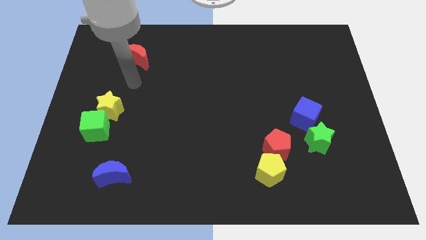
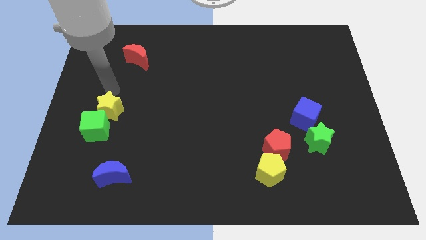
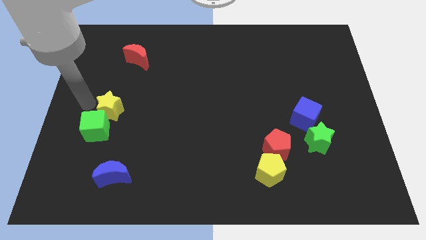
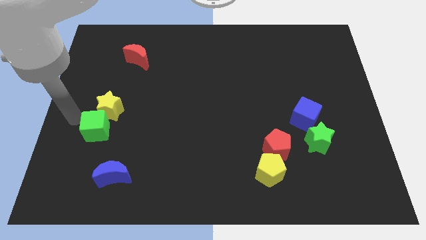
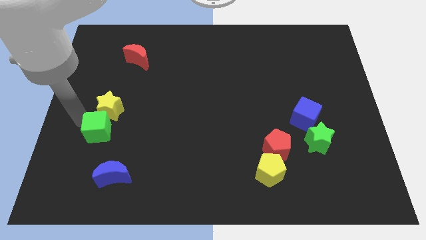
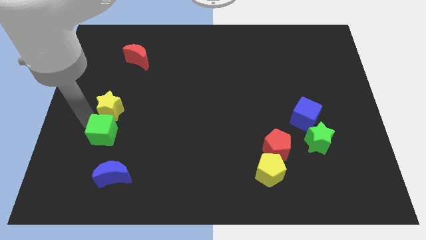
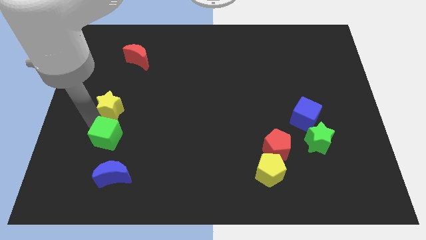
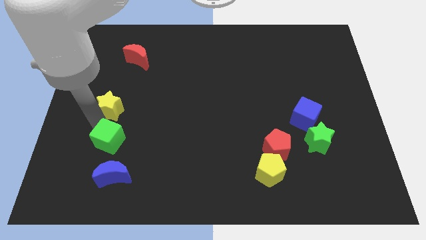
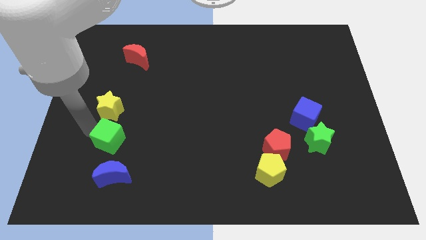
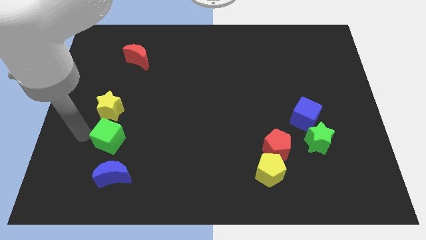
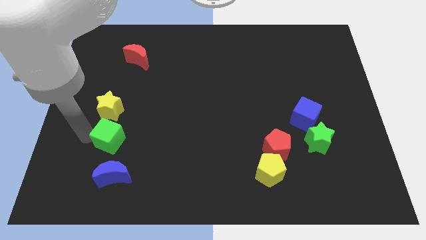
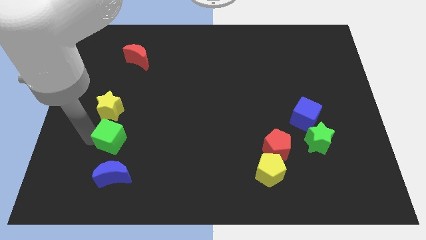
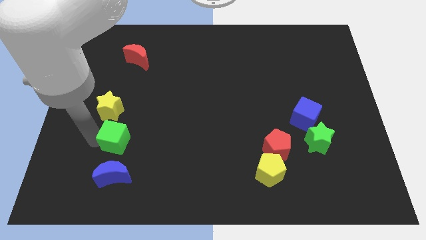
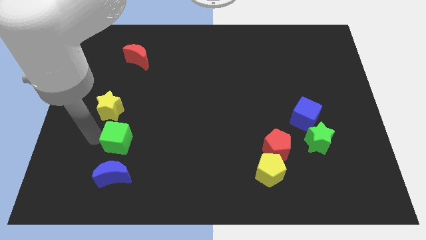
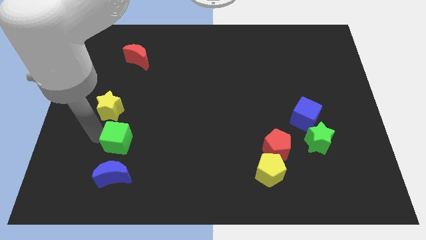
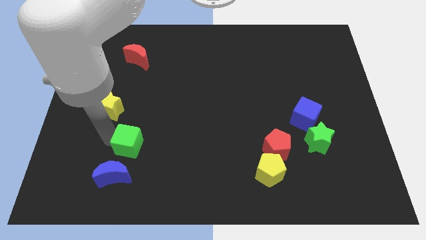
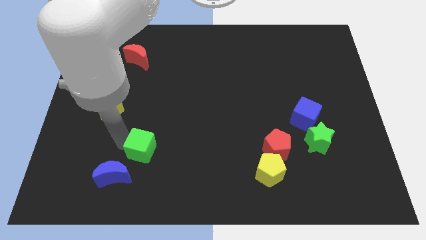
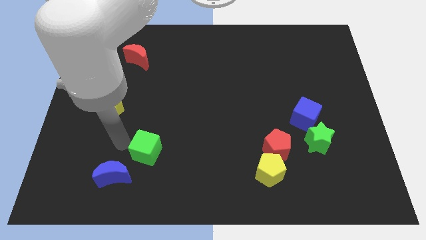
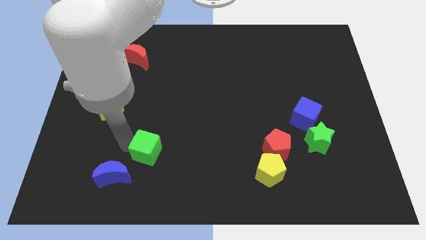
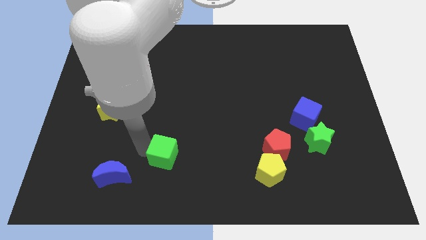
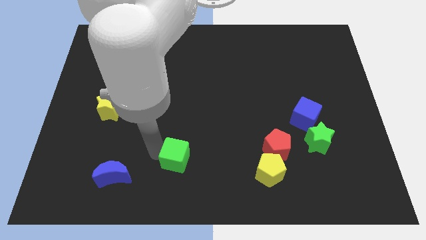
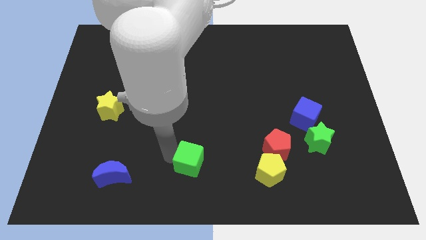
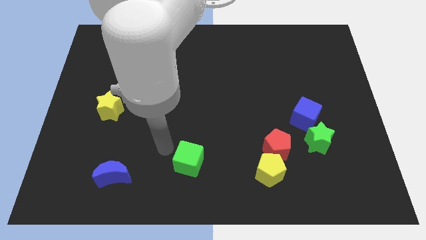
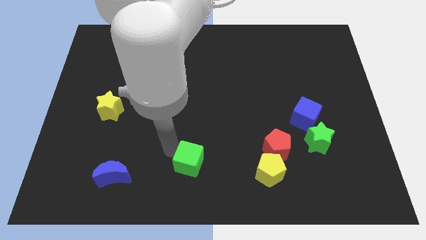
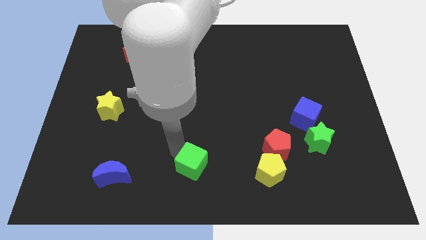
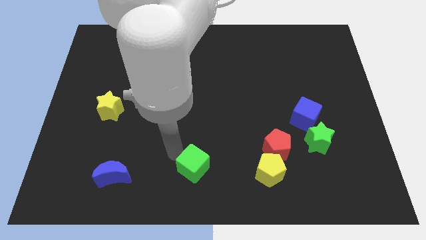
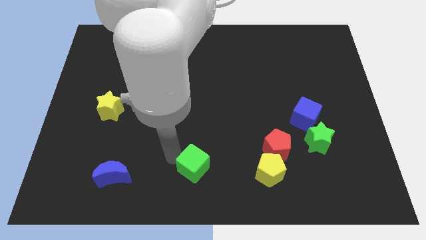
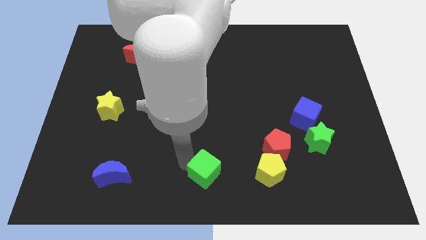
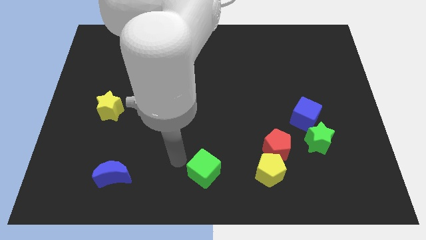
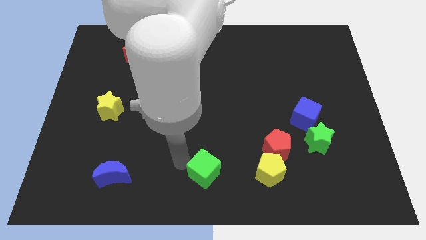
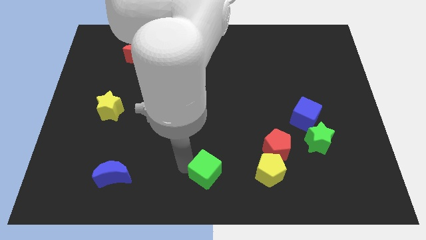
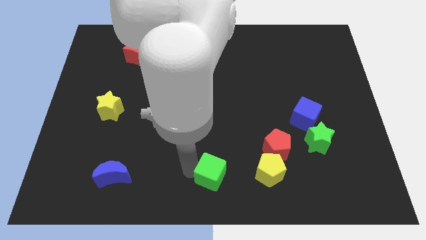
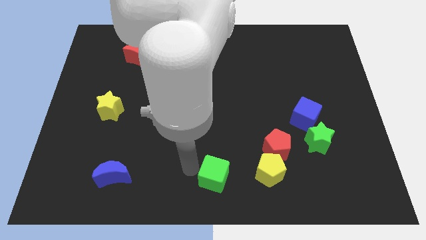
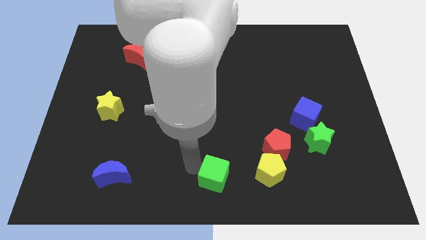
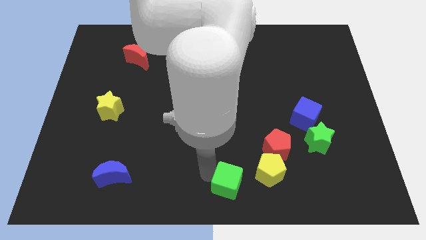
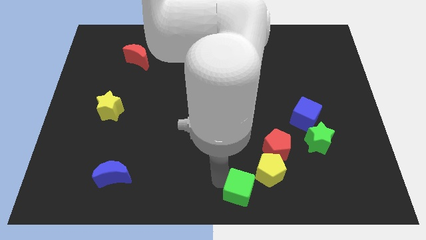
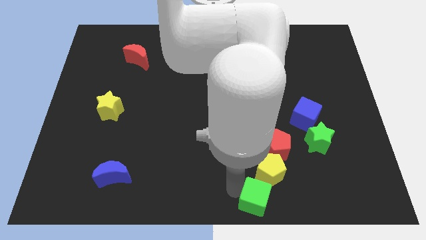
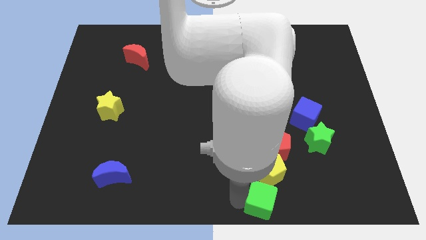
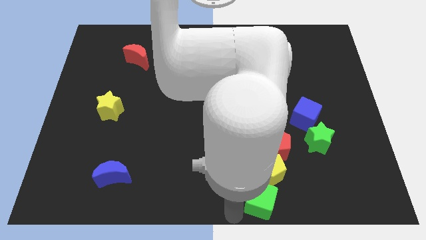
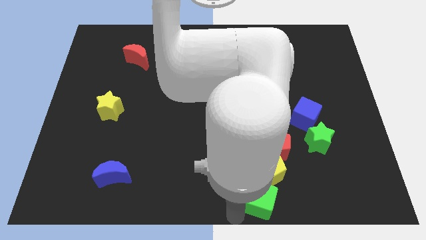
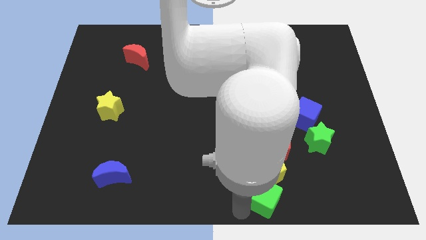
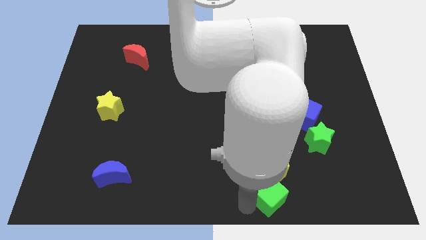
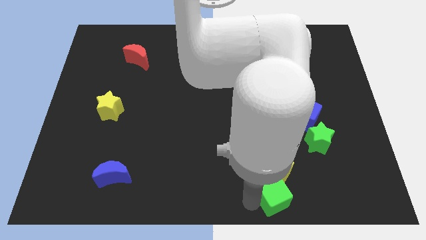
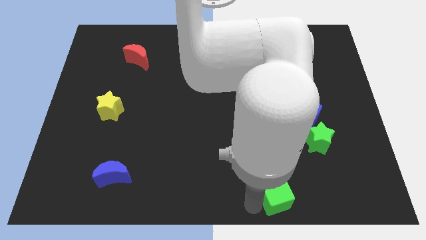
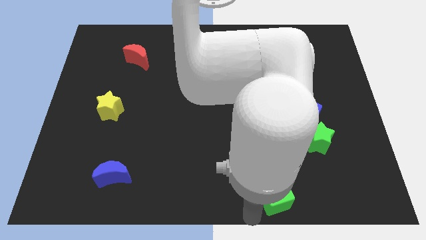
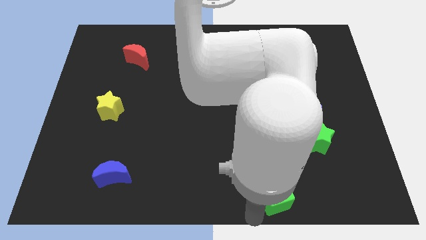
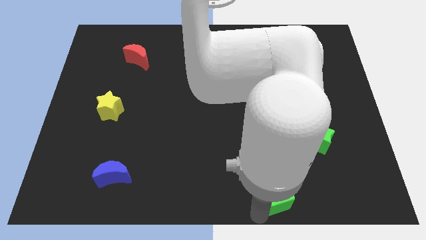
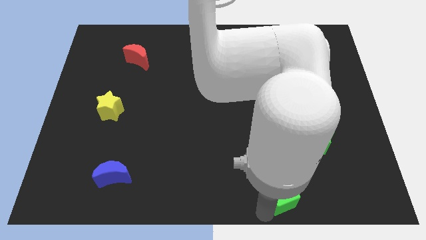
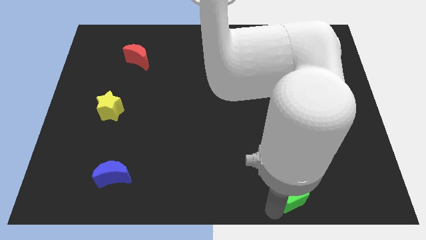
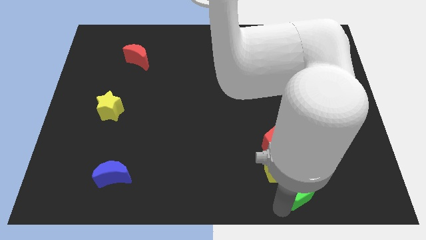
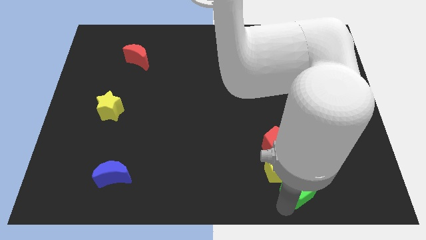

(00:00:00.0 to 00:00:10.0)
move the green cube to the bottom right side of the red pentagon

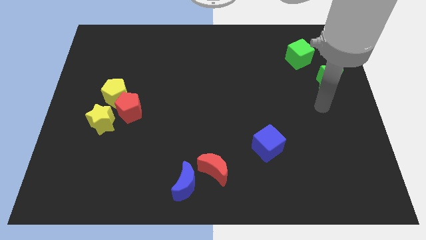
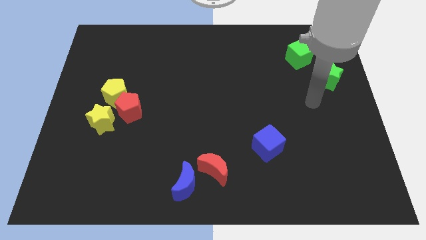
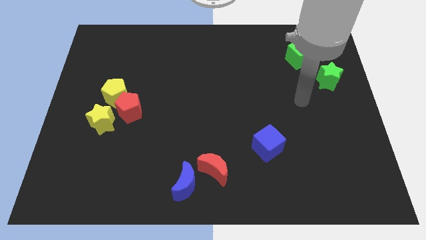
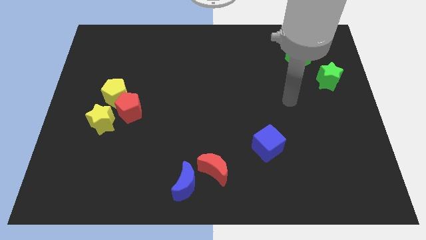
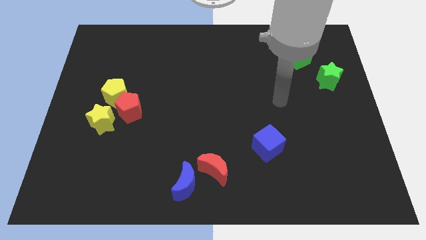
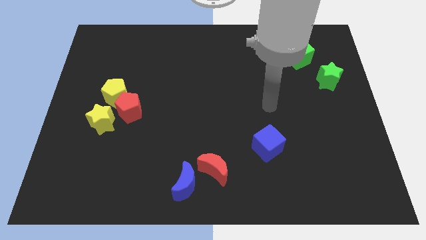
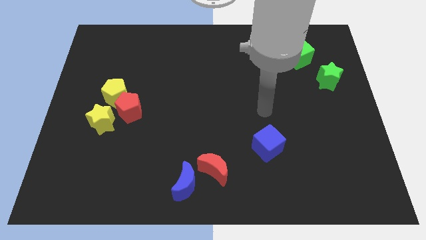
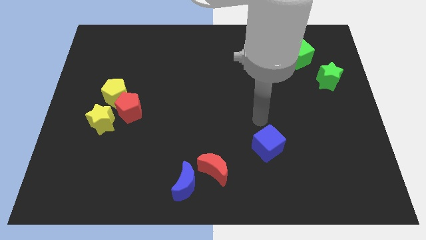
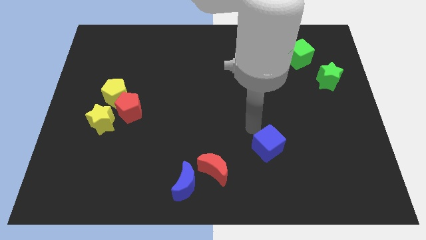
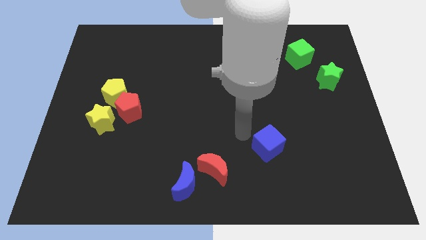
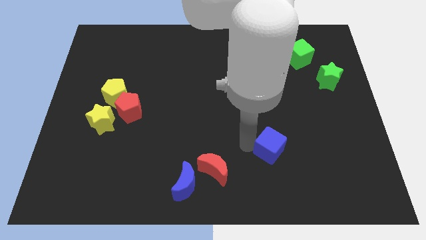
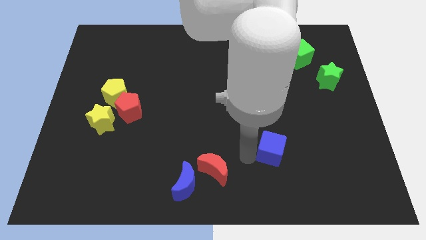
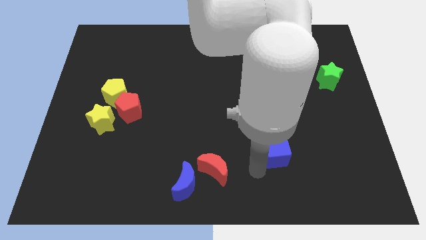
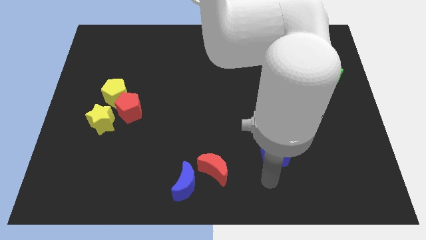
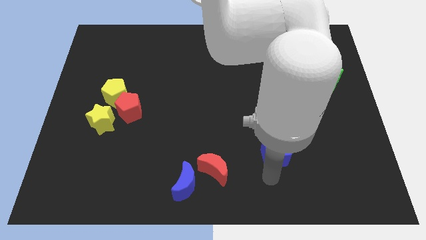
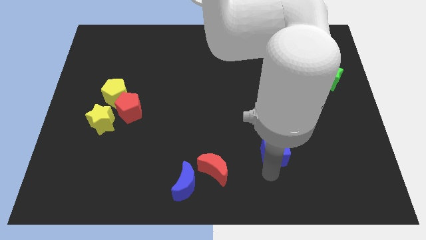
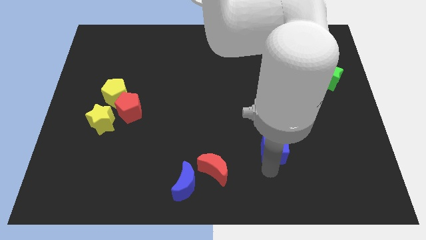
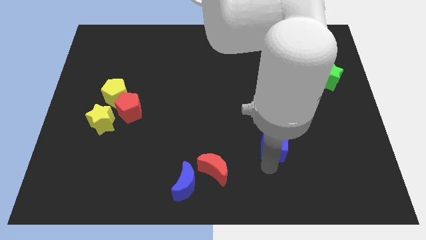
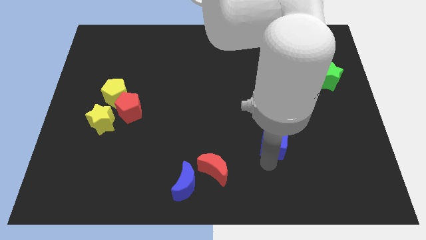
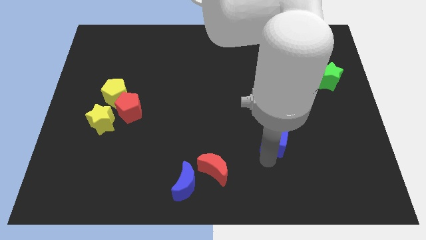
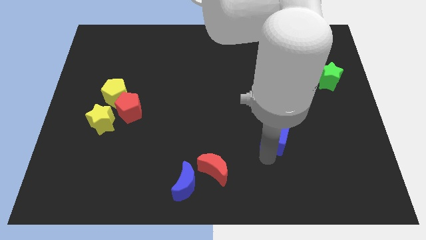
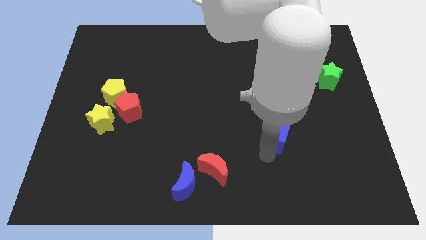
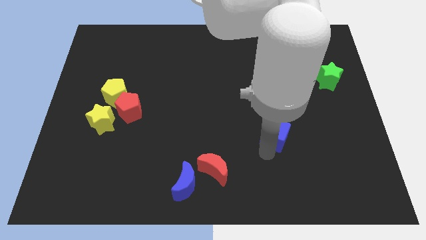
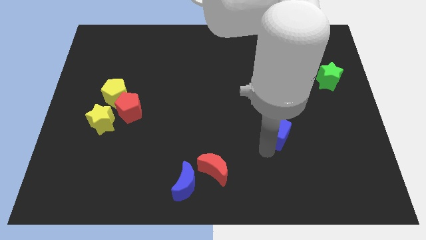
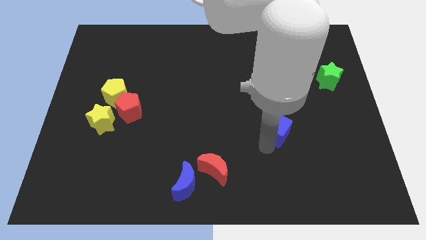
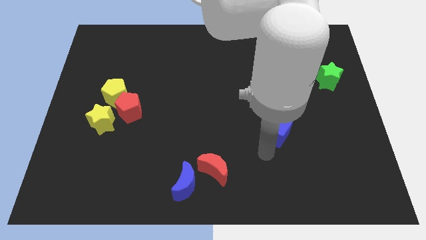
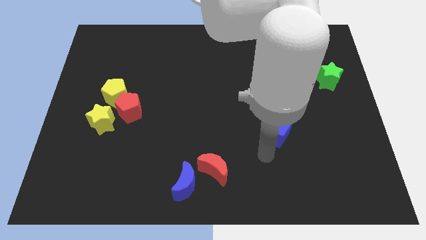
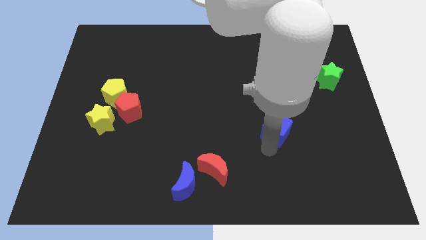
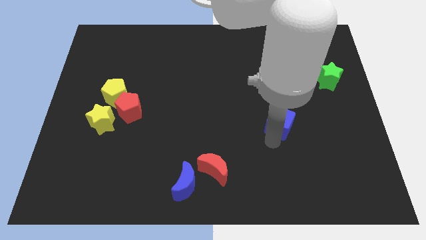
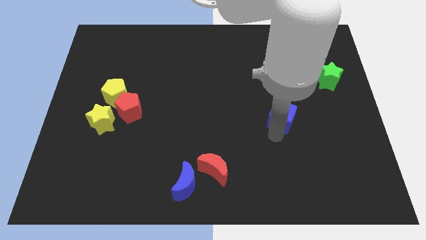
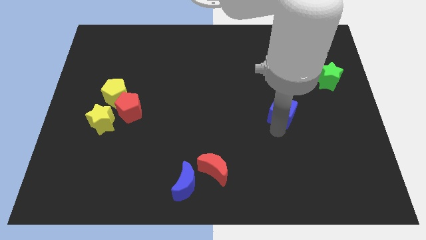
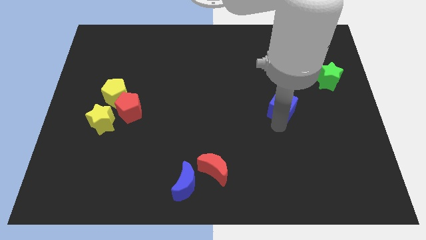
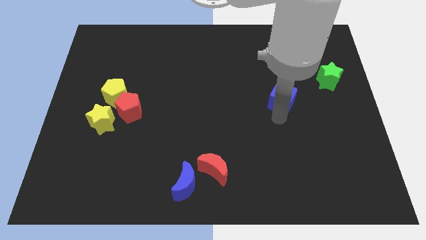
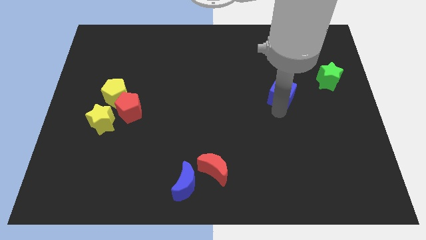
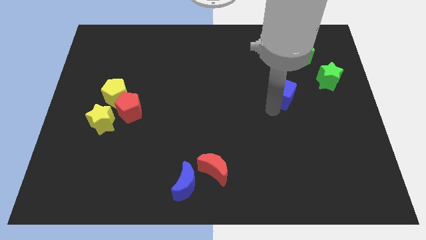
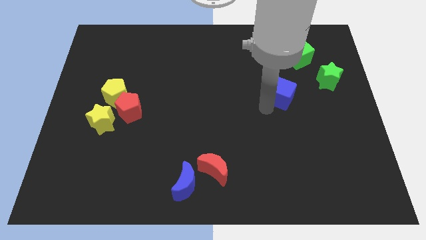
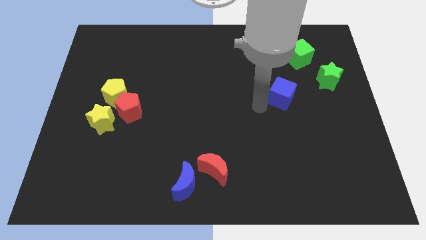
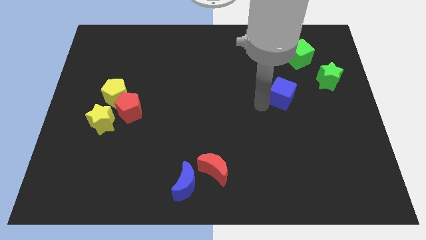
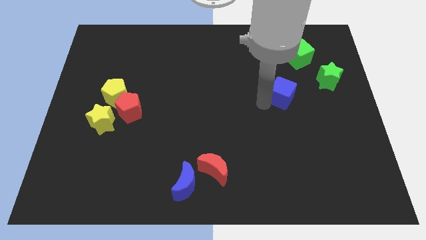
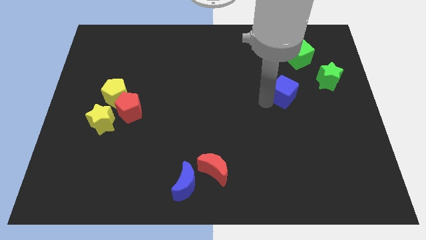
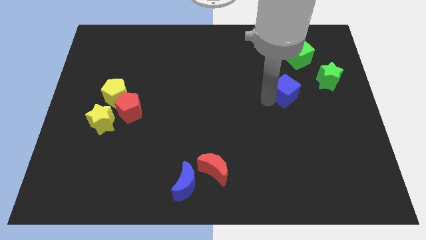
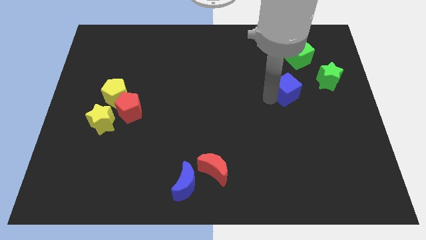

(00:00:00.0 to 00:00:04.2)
push the blue cube to the bottom side of the green cube
